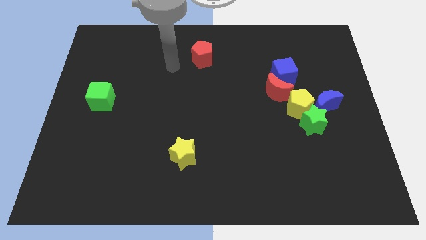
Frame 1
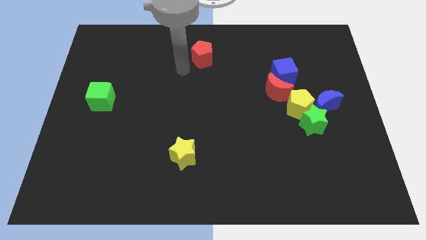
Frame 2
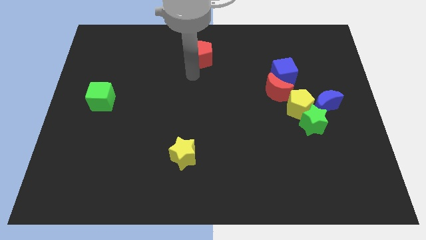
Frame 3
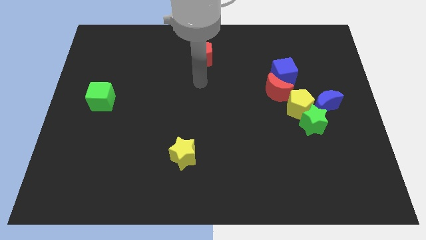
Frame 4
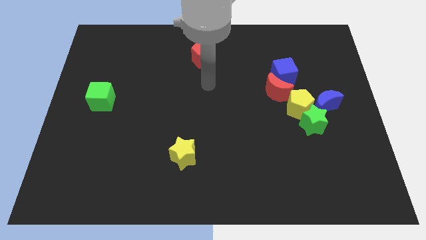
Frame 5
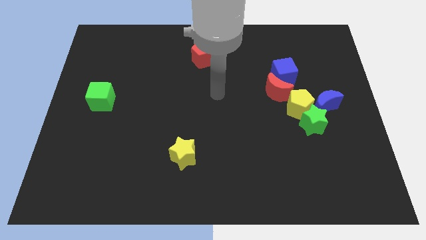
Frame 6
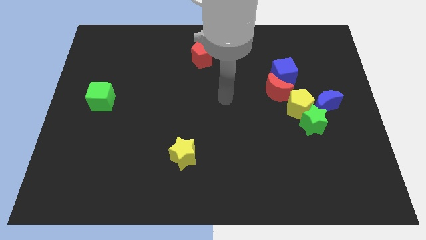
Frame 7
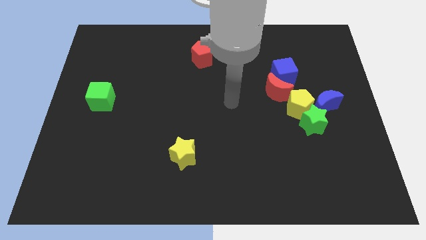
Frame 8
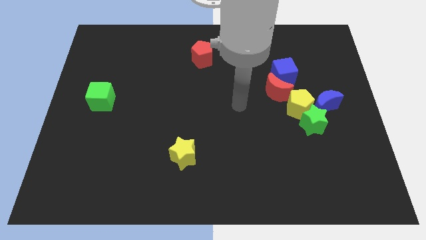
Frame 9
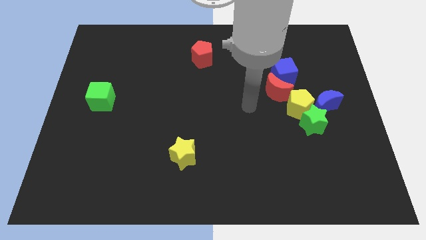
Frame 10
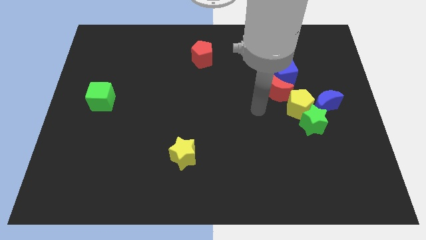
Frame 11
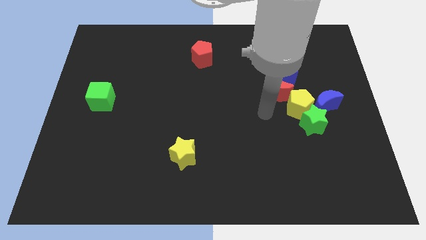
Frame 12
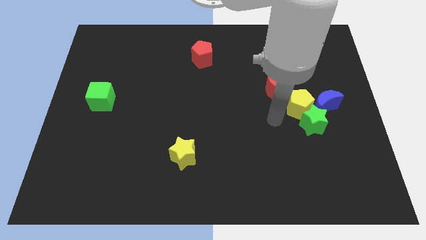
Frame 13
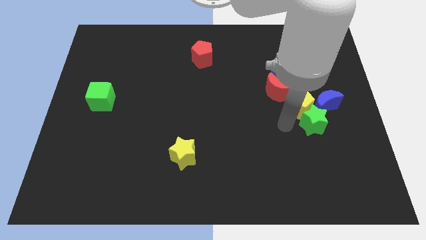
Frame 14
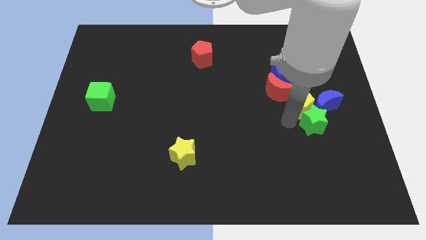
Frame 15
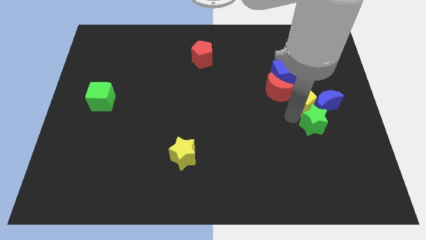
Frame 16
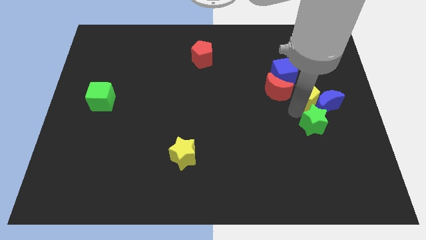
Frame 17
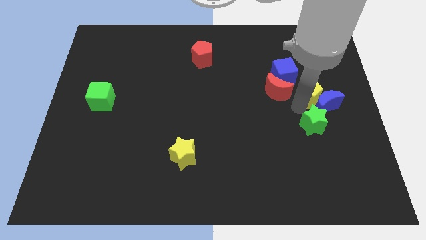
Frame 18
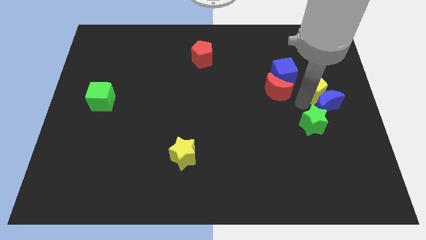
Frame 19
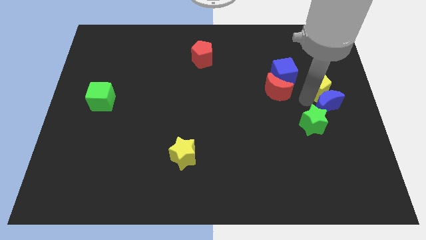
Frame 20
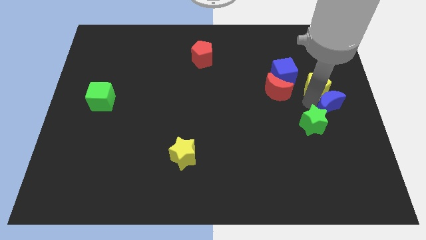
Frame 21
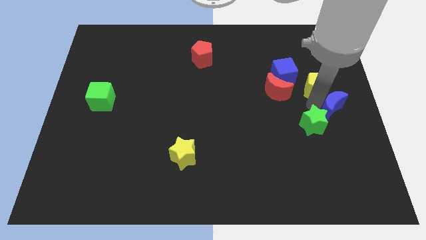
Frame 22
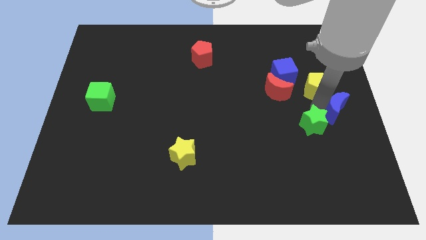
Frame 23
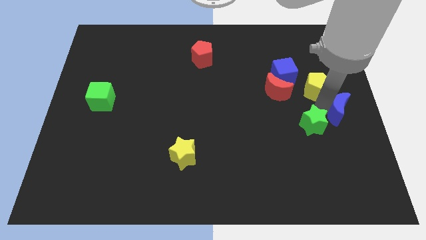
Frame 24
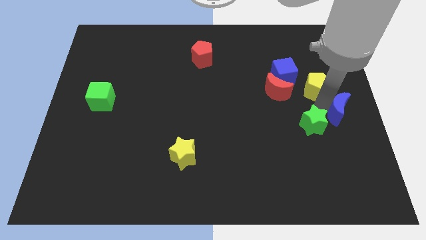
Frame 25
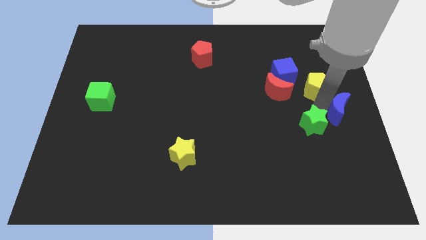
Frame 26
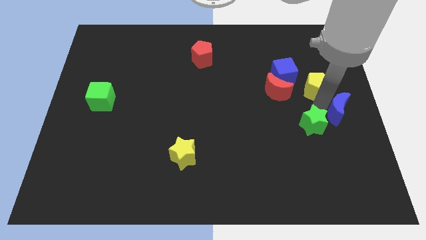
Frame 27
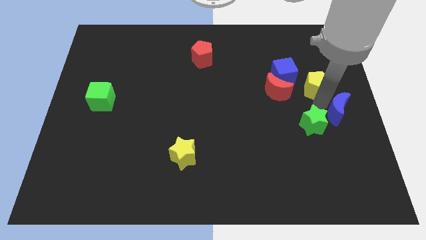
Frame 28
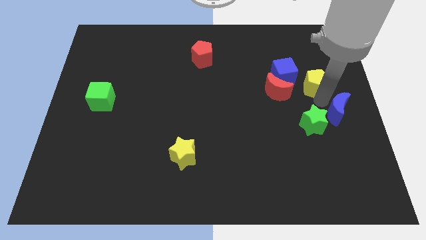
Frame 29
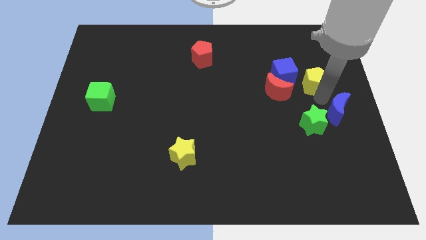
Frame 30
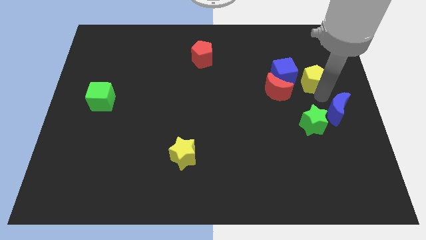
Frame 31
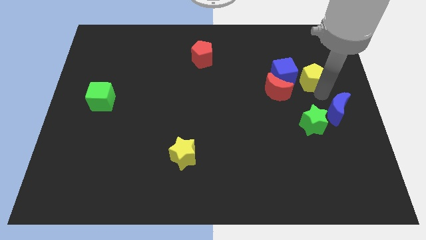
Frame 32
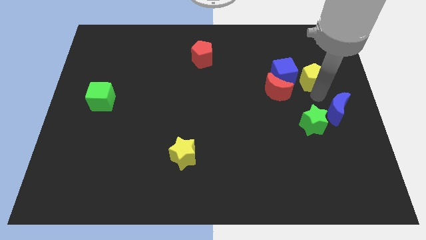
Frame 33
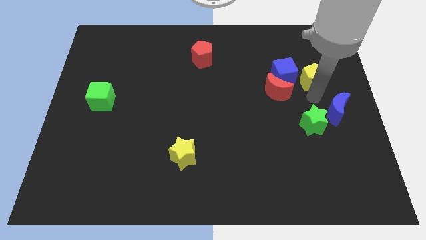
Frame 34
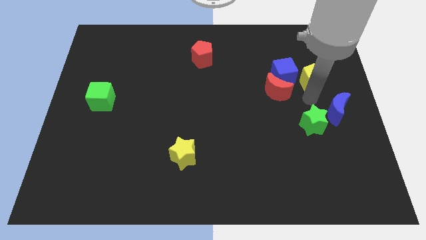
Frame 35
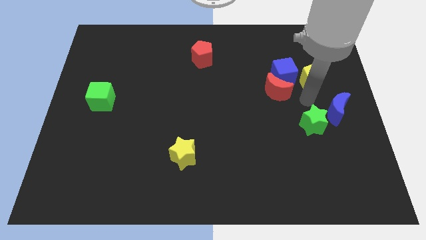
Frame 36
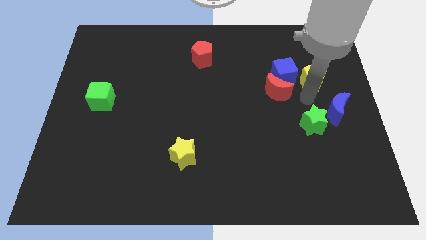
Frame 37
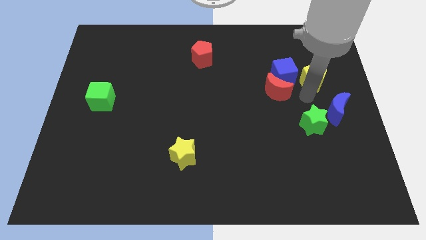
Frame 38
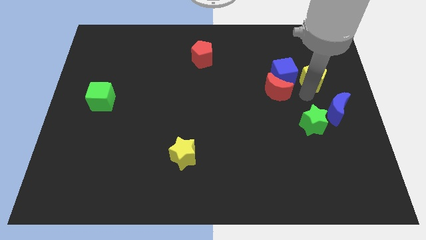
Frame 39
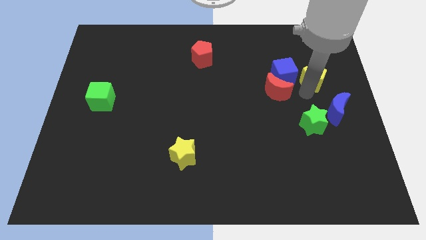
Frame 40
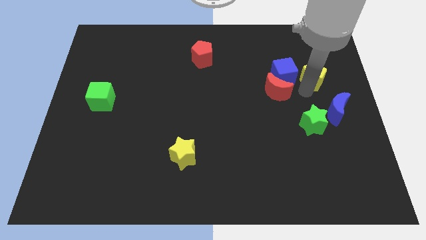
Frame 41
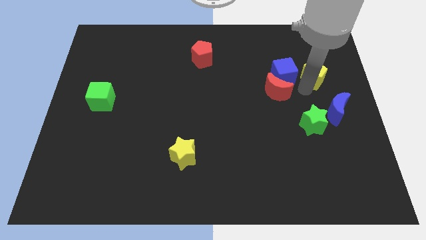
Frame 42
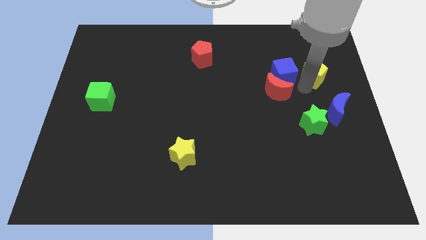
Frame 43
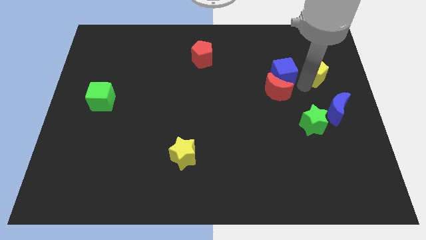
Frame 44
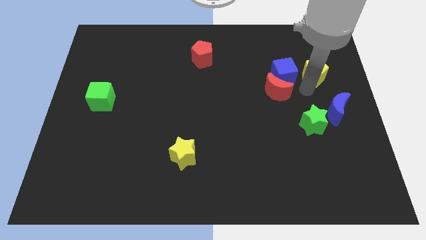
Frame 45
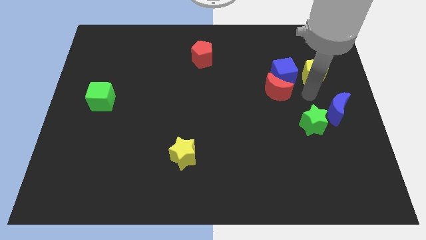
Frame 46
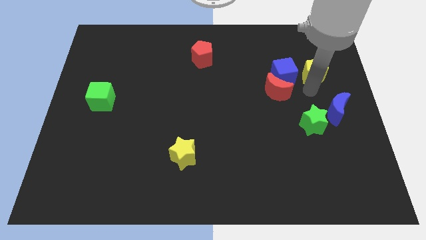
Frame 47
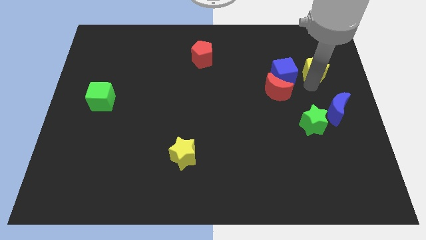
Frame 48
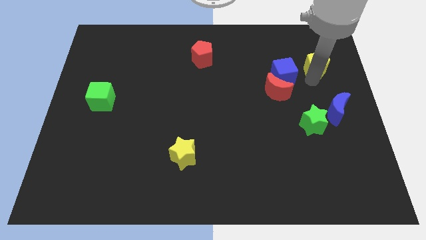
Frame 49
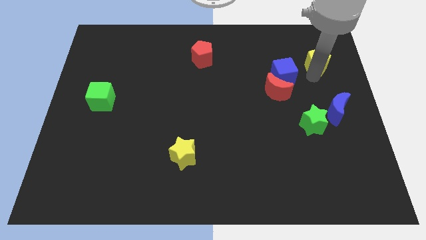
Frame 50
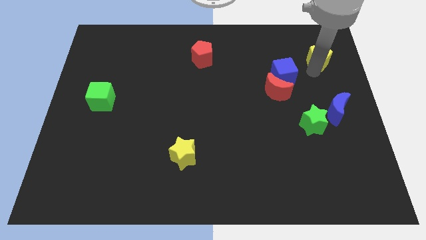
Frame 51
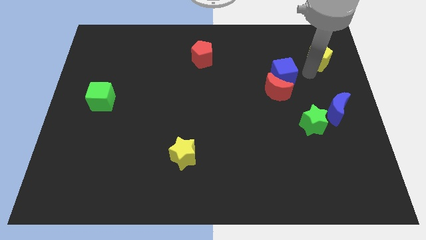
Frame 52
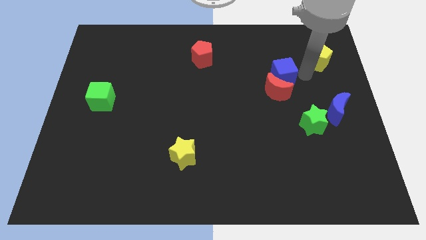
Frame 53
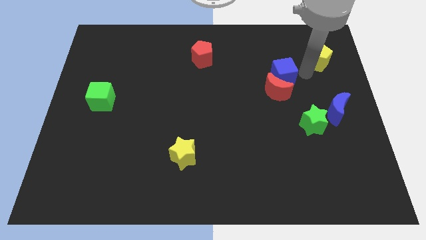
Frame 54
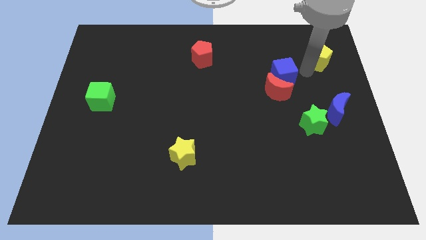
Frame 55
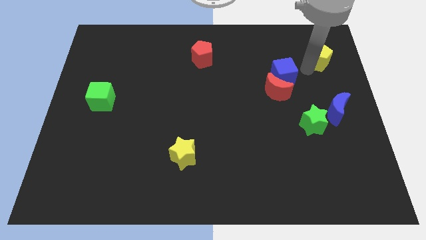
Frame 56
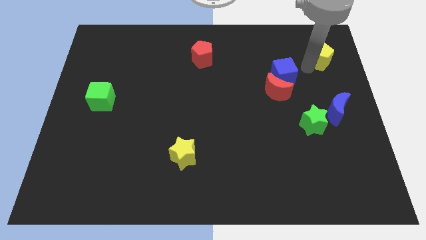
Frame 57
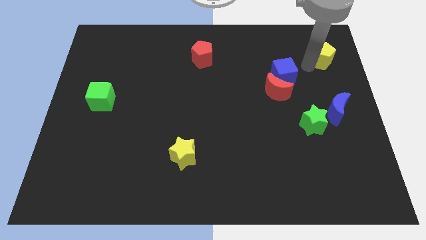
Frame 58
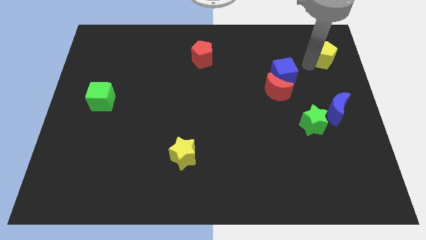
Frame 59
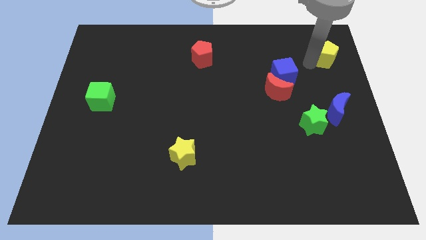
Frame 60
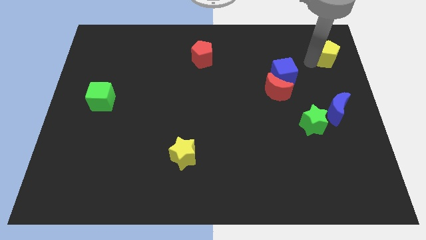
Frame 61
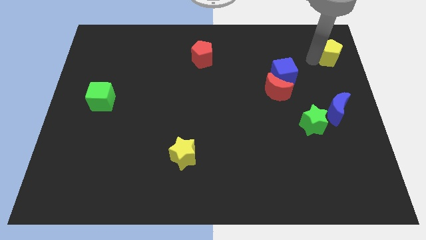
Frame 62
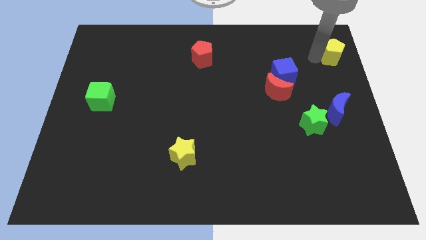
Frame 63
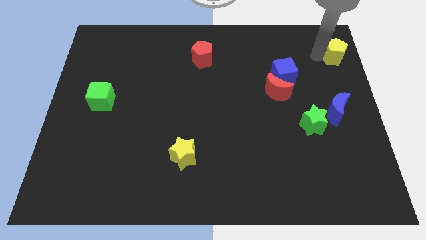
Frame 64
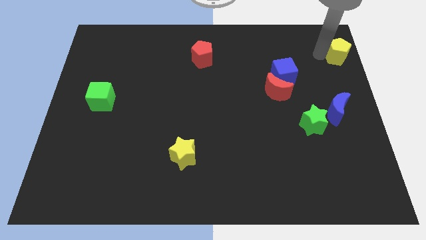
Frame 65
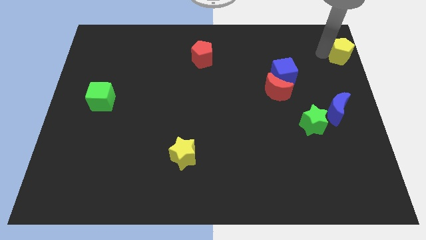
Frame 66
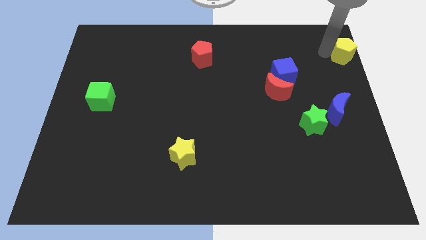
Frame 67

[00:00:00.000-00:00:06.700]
push the yellow pentagon to the top right of the board

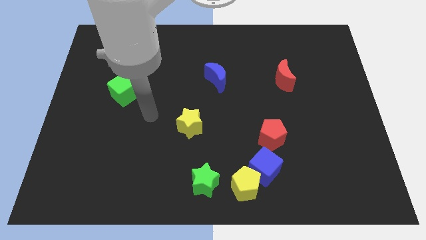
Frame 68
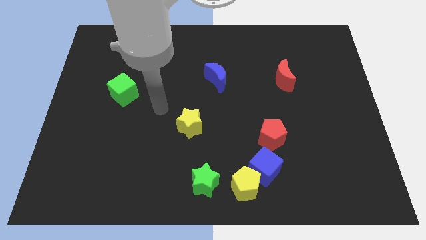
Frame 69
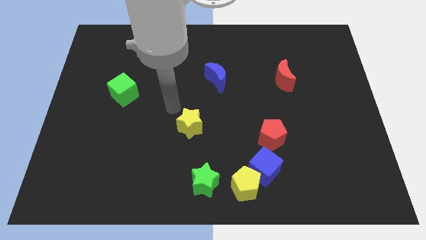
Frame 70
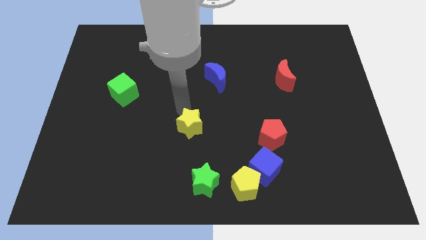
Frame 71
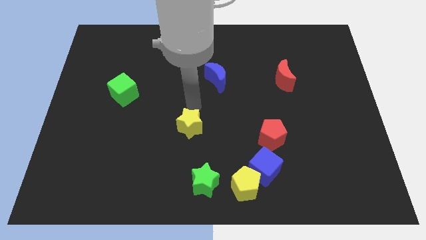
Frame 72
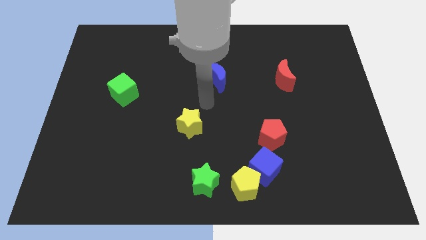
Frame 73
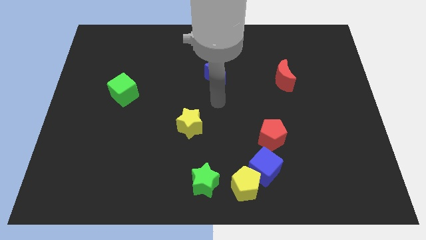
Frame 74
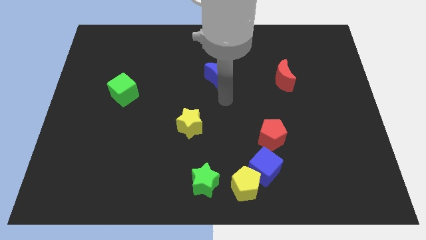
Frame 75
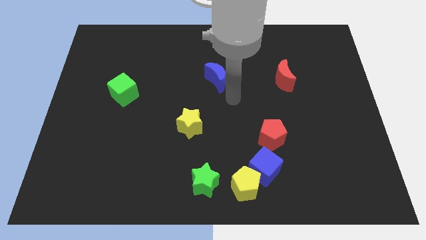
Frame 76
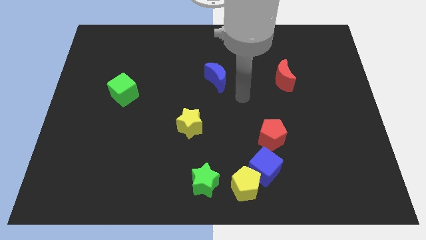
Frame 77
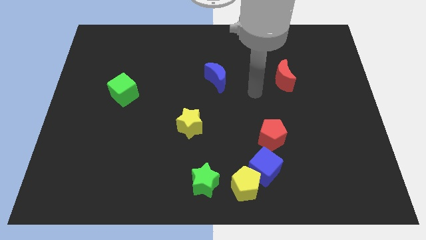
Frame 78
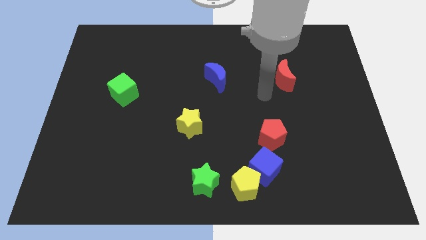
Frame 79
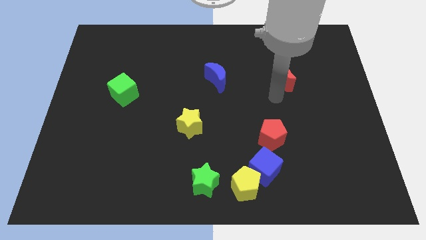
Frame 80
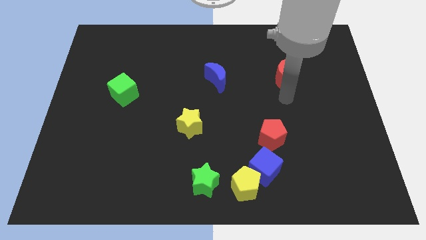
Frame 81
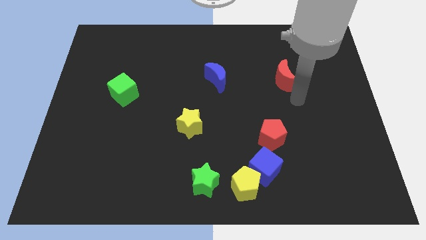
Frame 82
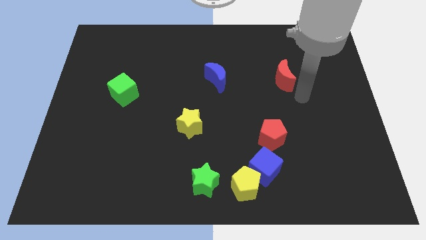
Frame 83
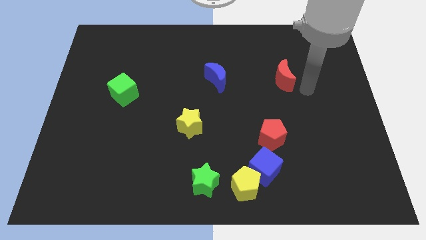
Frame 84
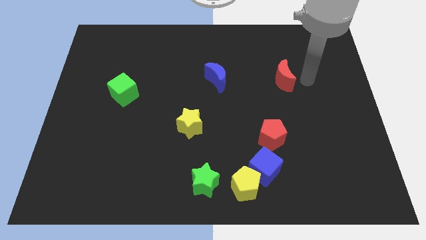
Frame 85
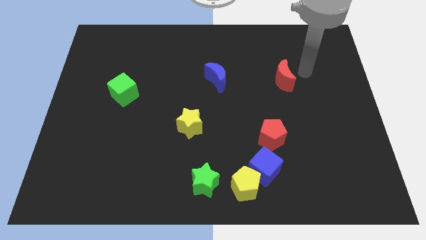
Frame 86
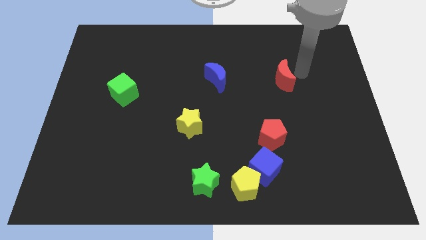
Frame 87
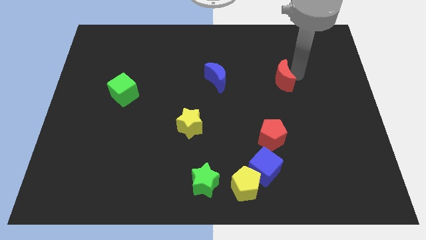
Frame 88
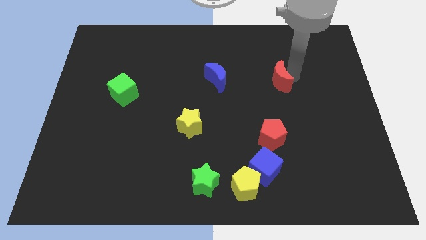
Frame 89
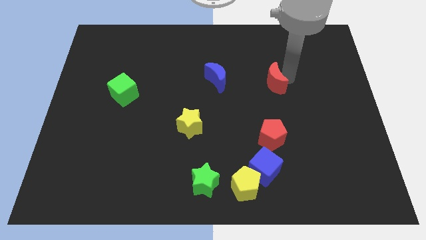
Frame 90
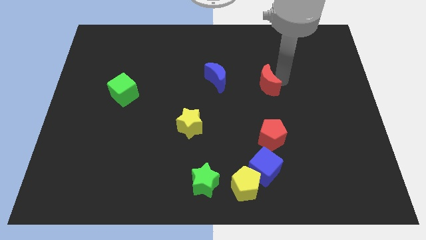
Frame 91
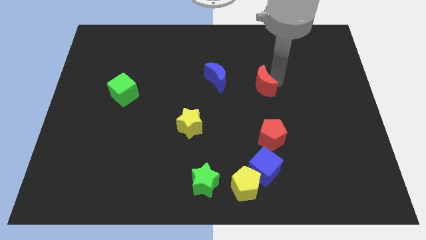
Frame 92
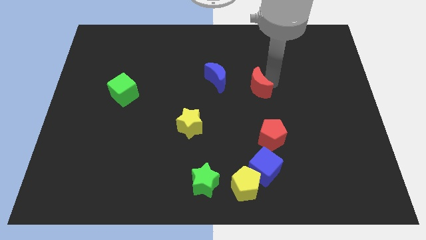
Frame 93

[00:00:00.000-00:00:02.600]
move the red moon to the middle of the board
